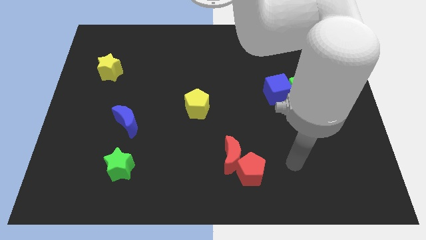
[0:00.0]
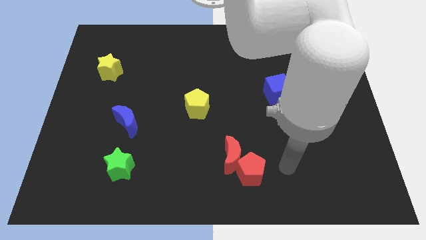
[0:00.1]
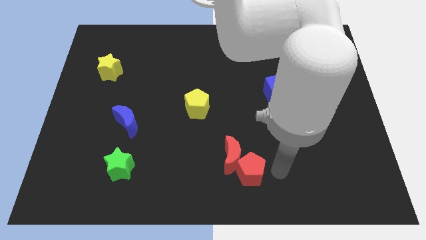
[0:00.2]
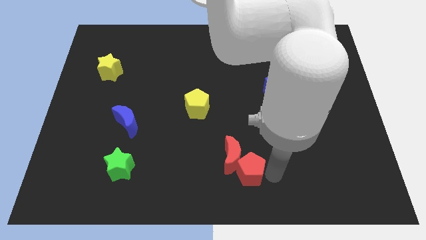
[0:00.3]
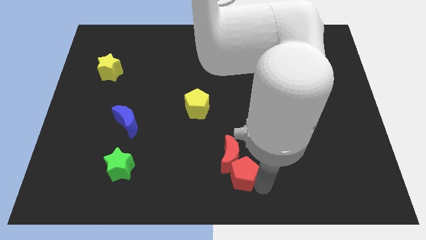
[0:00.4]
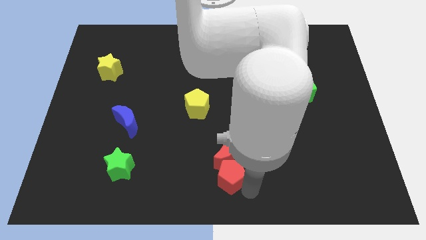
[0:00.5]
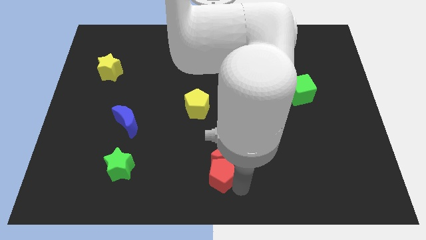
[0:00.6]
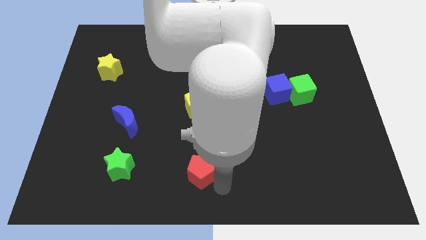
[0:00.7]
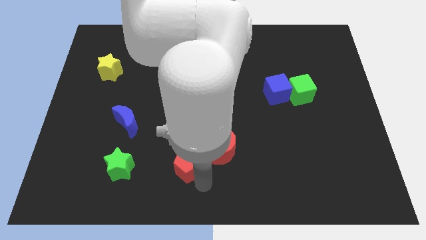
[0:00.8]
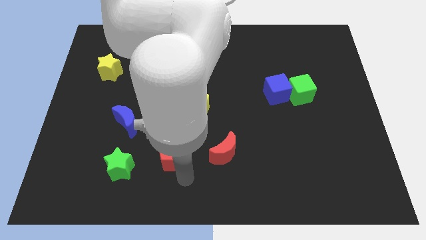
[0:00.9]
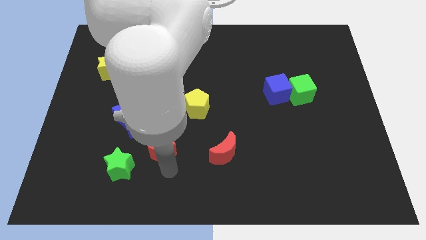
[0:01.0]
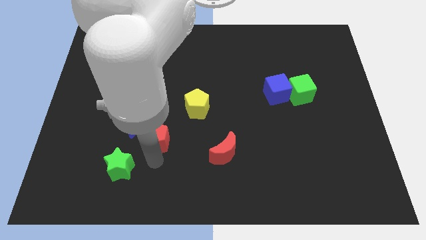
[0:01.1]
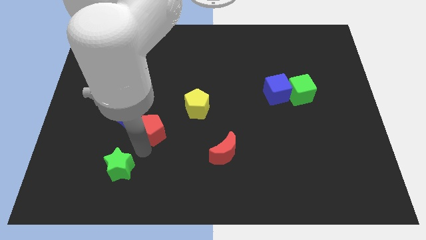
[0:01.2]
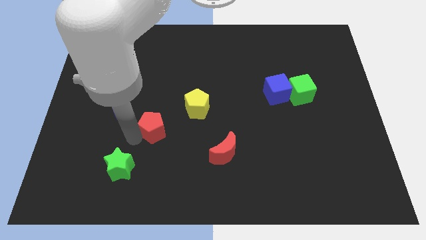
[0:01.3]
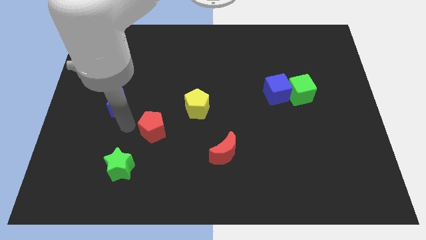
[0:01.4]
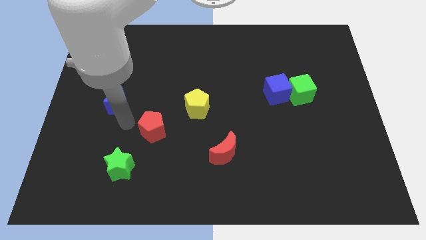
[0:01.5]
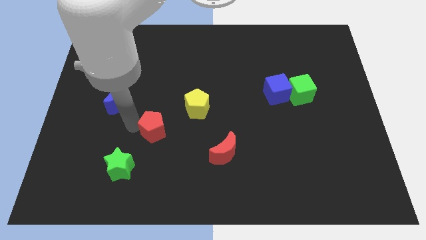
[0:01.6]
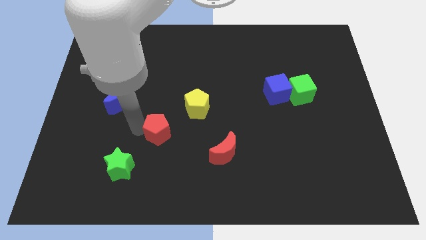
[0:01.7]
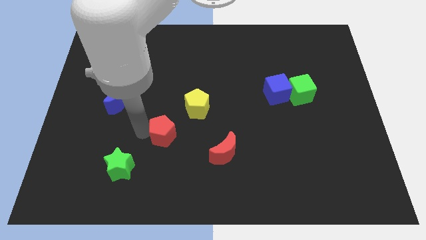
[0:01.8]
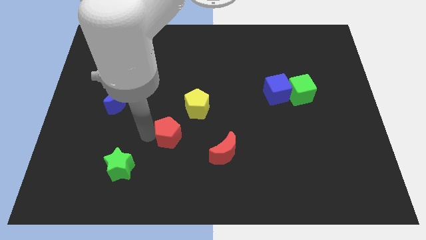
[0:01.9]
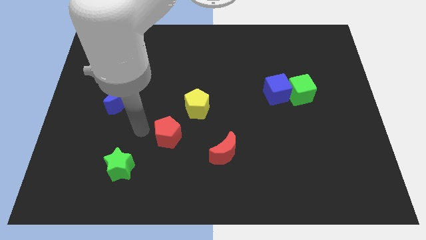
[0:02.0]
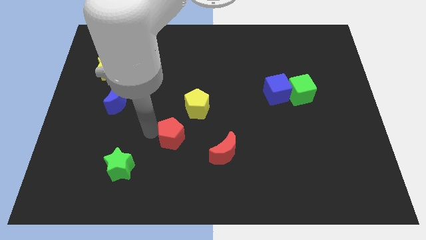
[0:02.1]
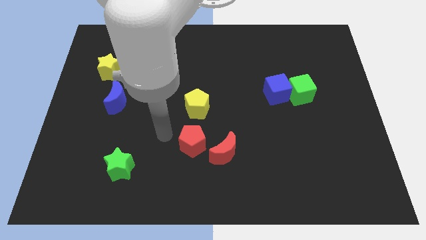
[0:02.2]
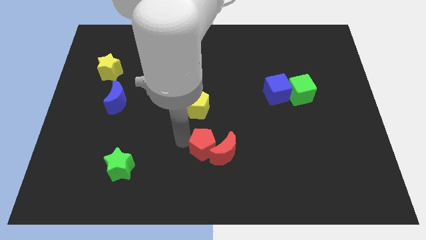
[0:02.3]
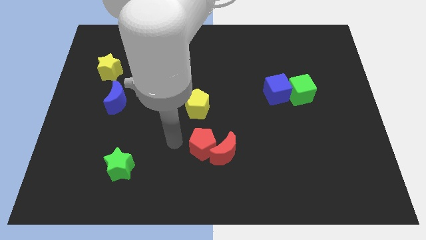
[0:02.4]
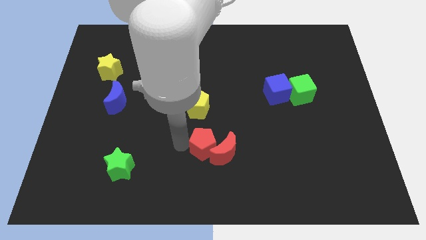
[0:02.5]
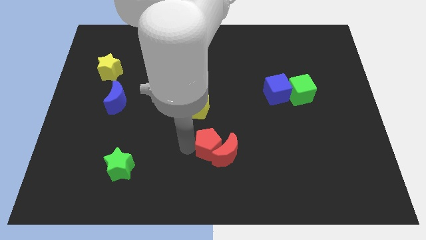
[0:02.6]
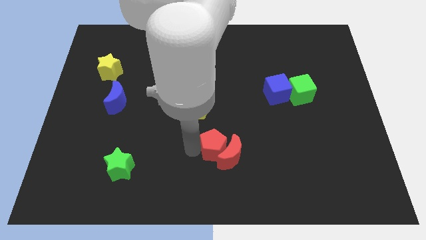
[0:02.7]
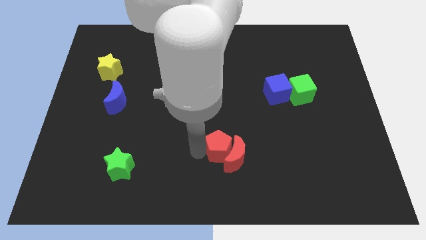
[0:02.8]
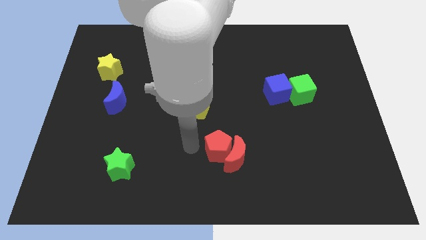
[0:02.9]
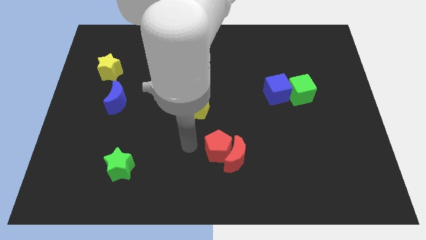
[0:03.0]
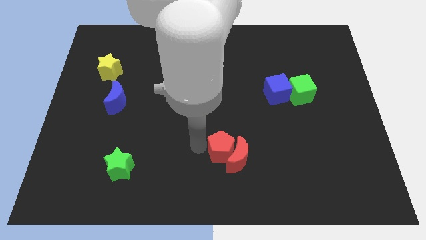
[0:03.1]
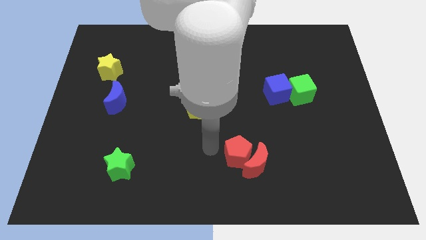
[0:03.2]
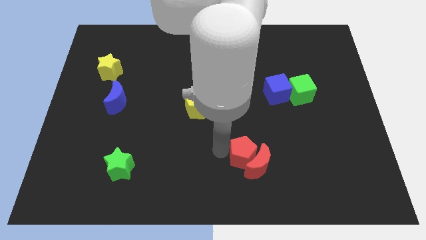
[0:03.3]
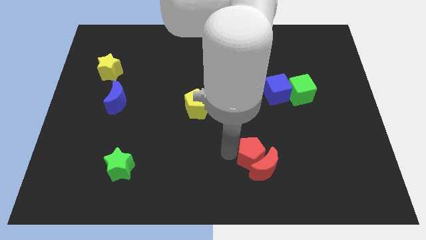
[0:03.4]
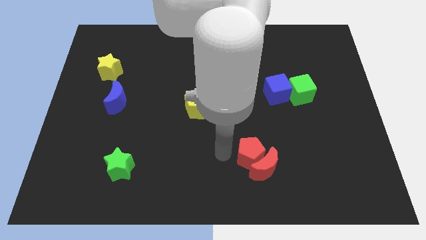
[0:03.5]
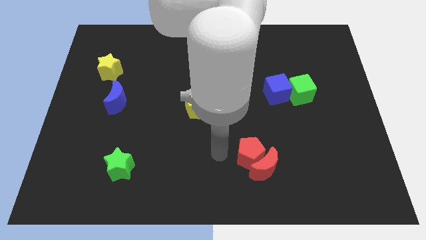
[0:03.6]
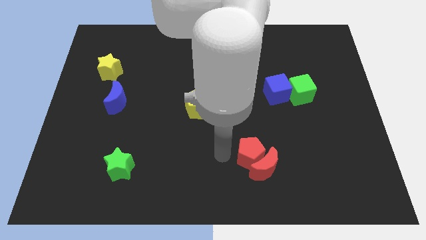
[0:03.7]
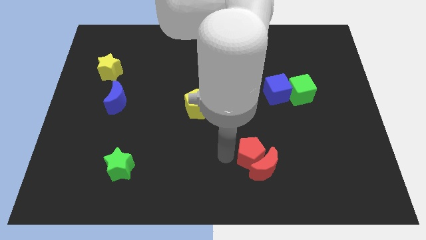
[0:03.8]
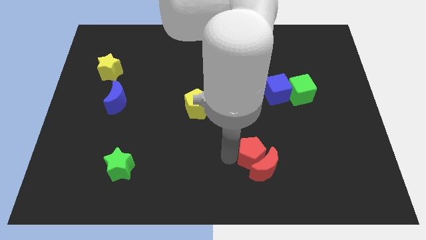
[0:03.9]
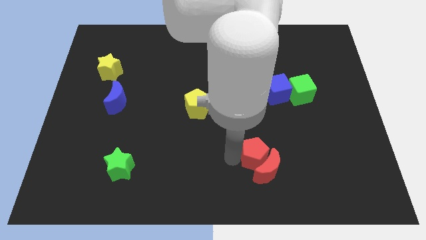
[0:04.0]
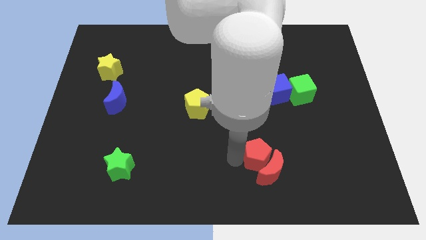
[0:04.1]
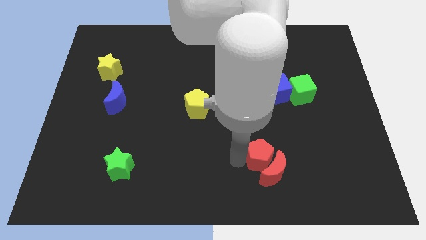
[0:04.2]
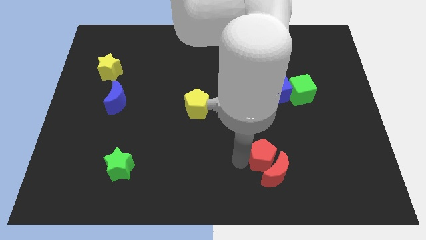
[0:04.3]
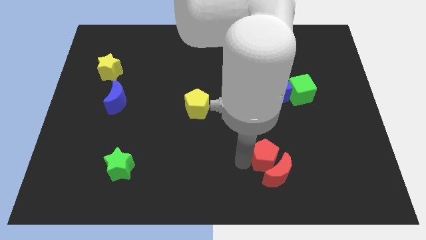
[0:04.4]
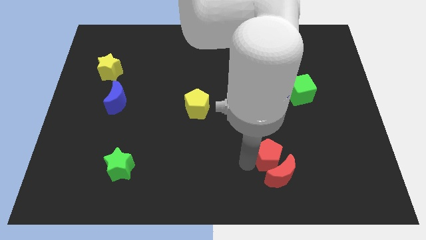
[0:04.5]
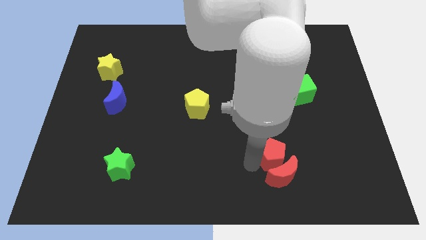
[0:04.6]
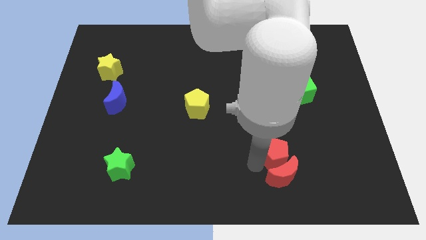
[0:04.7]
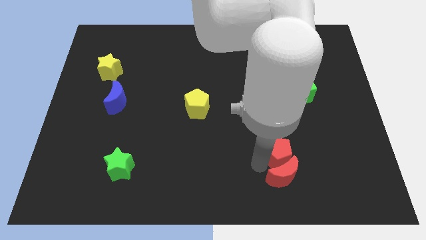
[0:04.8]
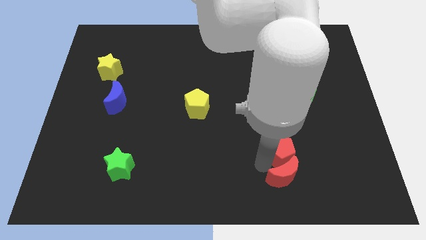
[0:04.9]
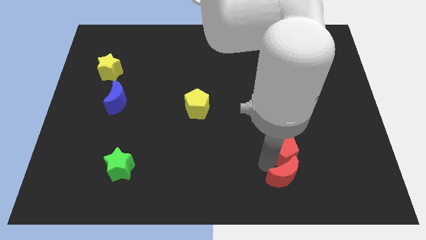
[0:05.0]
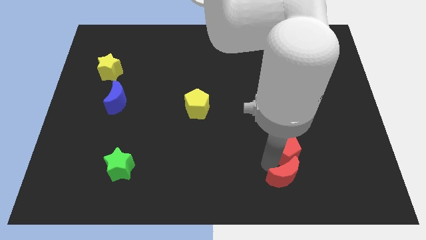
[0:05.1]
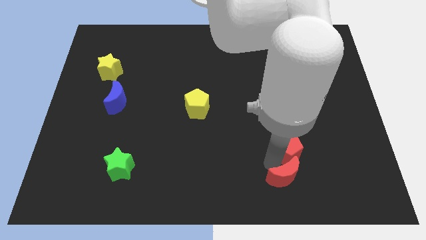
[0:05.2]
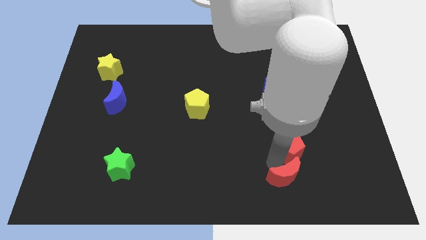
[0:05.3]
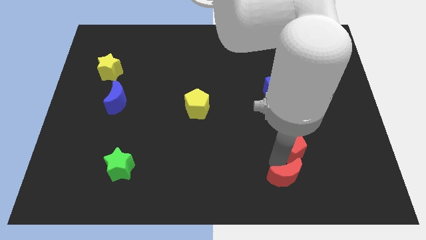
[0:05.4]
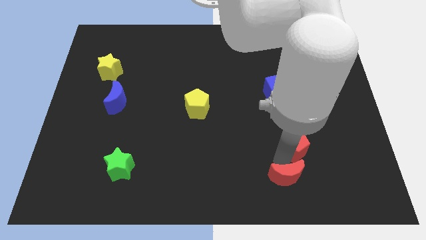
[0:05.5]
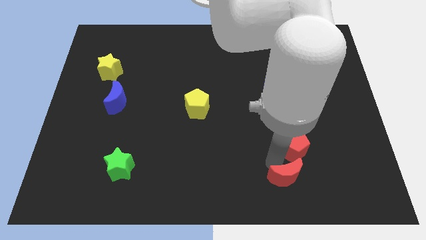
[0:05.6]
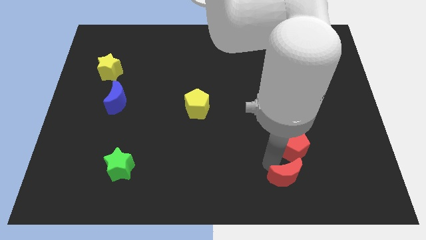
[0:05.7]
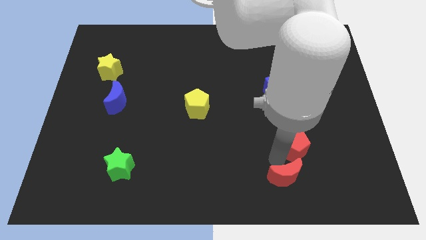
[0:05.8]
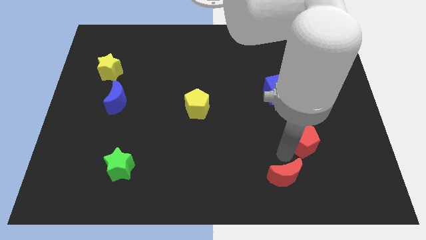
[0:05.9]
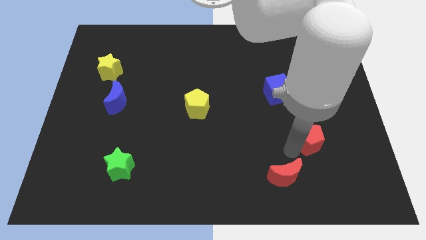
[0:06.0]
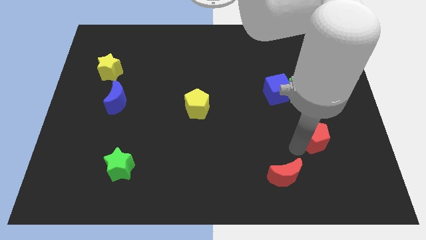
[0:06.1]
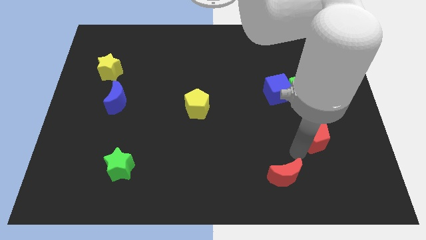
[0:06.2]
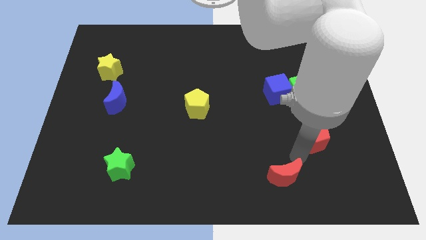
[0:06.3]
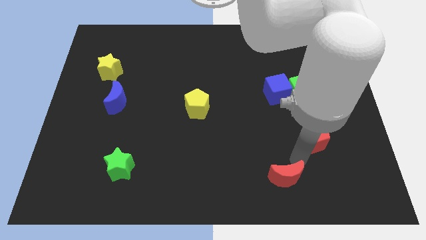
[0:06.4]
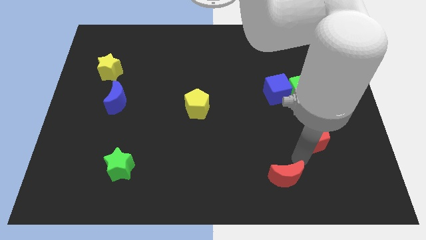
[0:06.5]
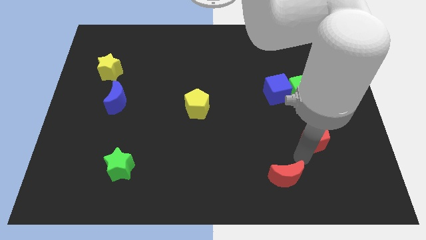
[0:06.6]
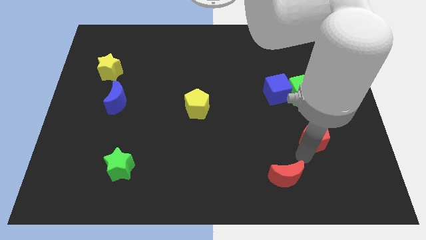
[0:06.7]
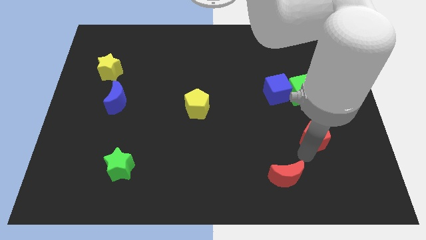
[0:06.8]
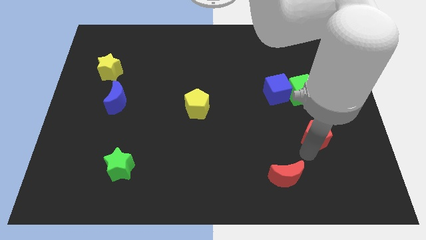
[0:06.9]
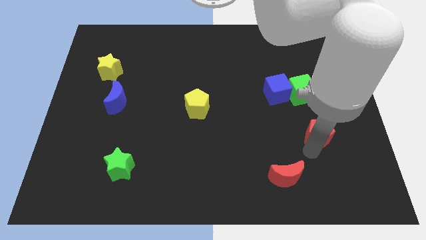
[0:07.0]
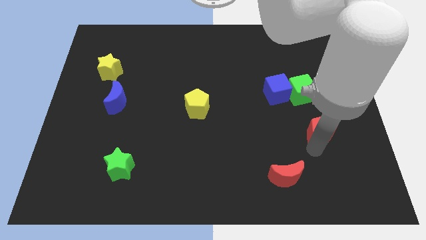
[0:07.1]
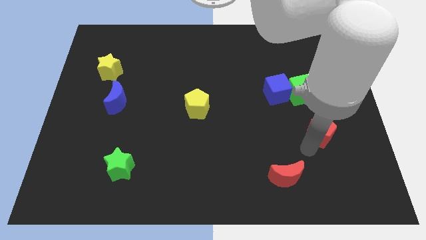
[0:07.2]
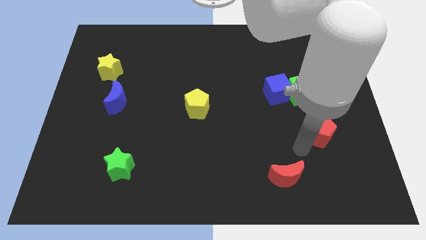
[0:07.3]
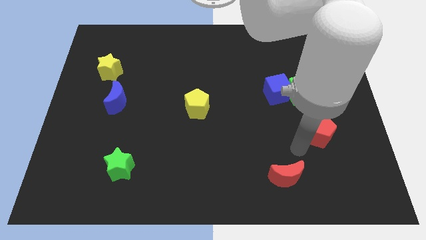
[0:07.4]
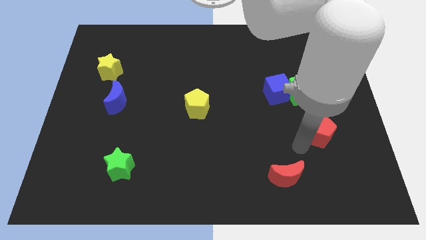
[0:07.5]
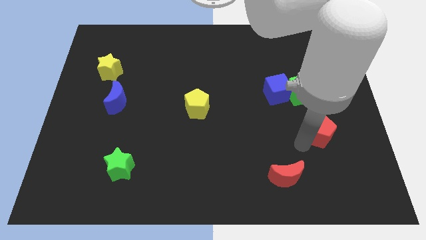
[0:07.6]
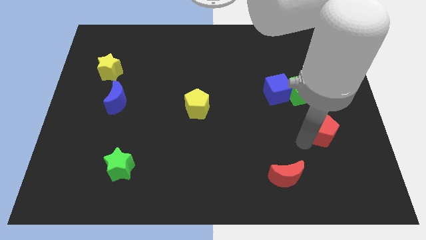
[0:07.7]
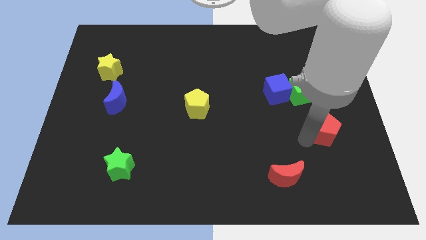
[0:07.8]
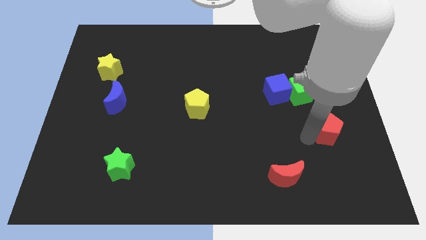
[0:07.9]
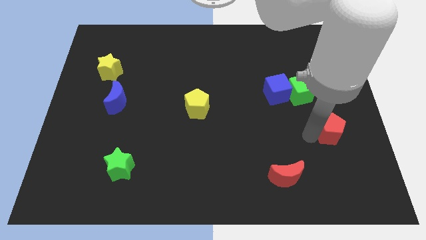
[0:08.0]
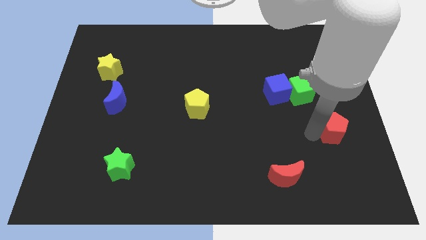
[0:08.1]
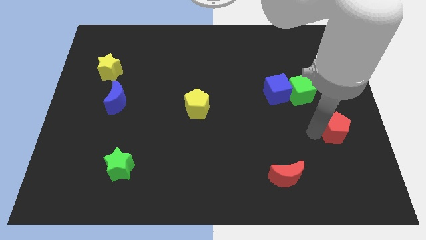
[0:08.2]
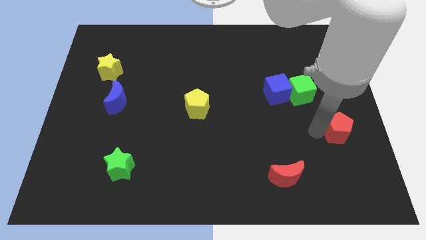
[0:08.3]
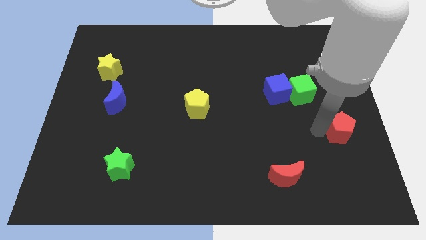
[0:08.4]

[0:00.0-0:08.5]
slide the red pentagon to the right side of the board
